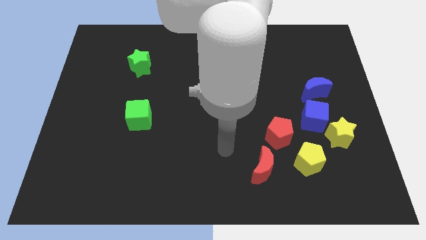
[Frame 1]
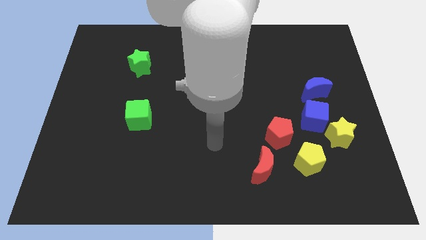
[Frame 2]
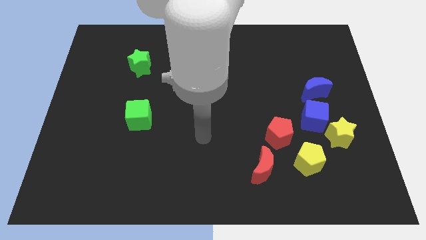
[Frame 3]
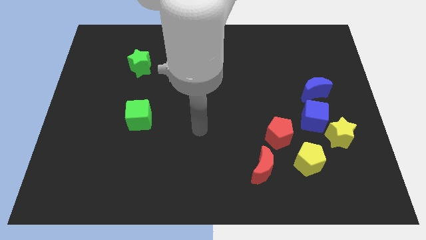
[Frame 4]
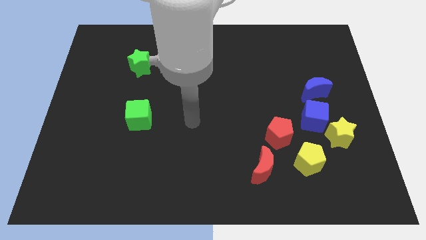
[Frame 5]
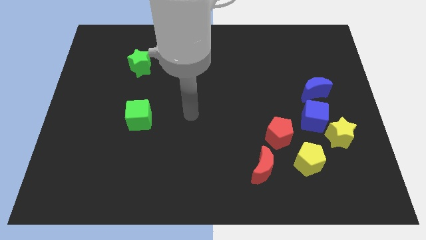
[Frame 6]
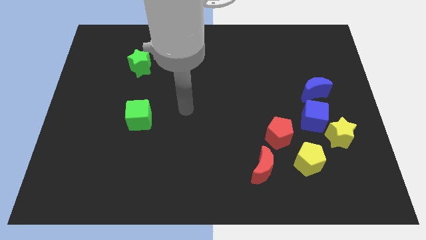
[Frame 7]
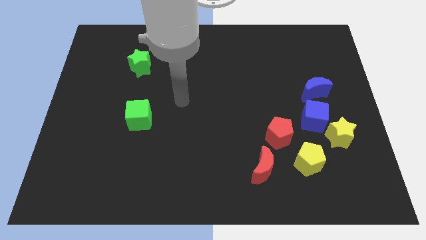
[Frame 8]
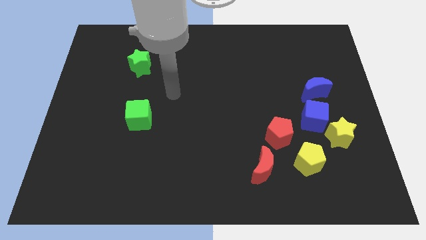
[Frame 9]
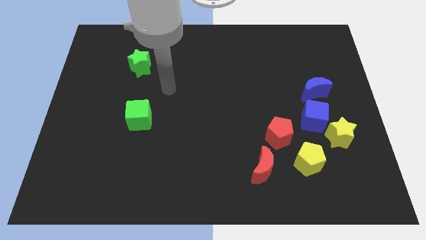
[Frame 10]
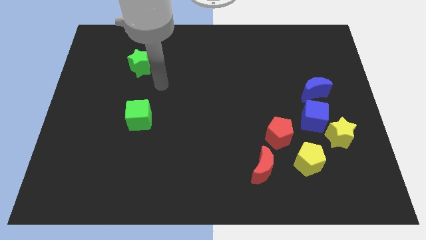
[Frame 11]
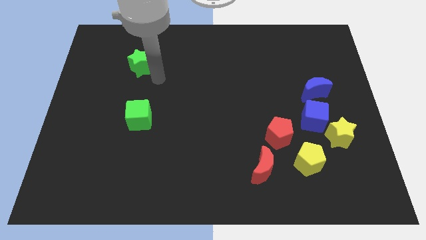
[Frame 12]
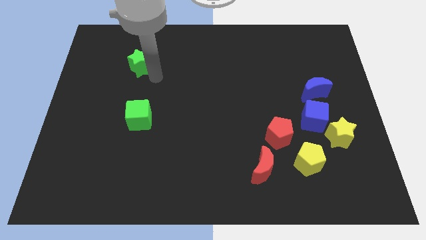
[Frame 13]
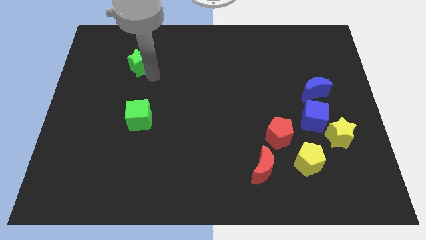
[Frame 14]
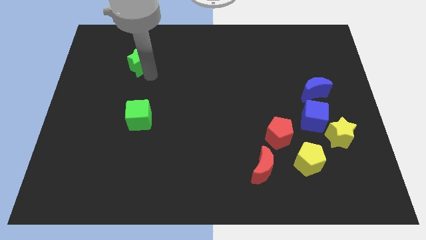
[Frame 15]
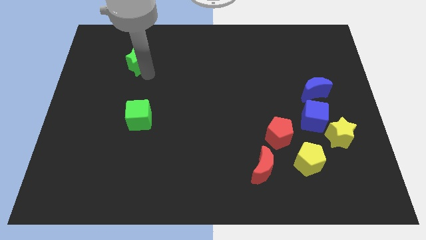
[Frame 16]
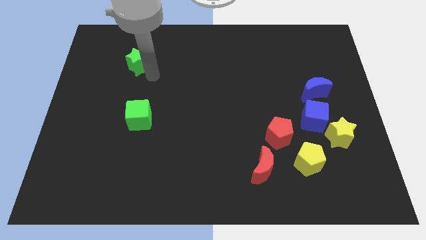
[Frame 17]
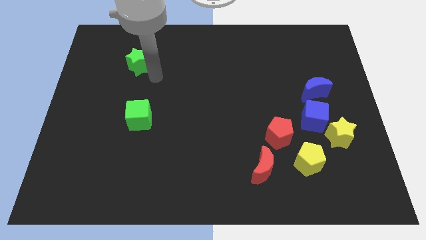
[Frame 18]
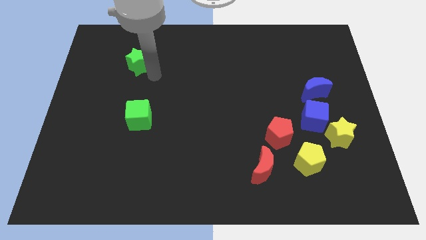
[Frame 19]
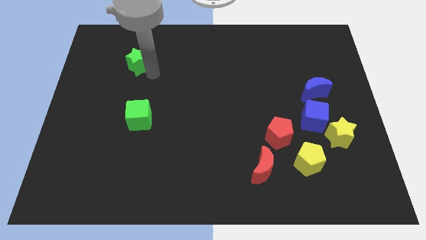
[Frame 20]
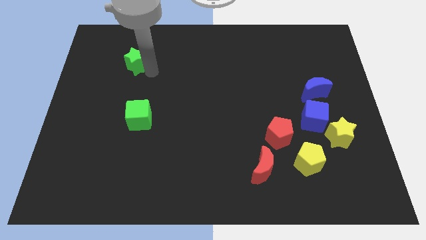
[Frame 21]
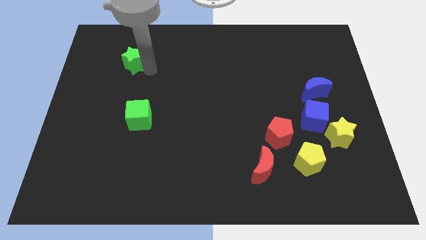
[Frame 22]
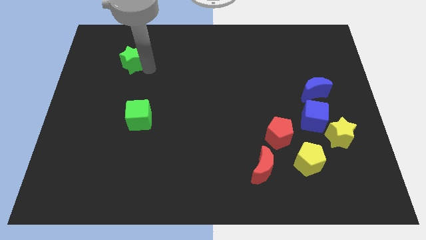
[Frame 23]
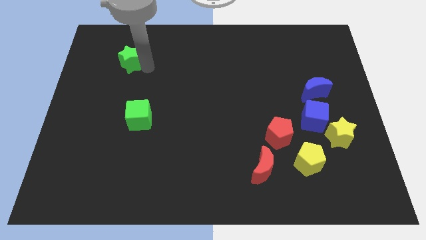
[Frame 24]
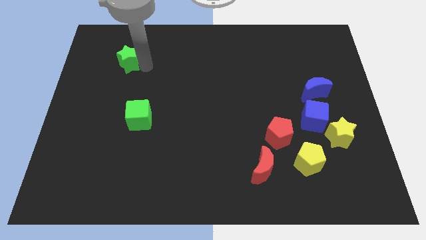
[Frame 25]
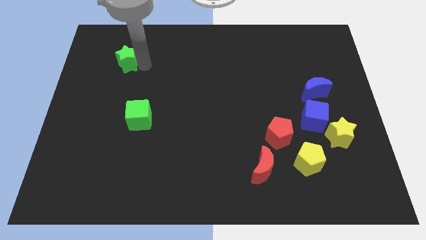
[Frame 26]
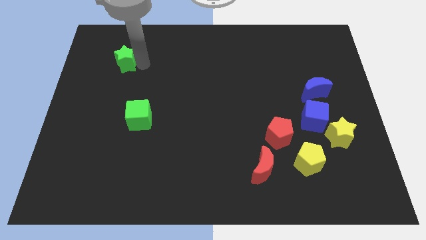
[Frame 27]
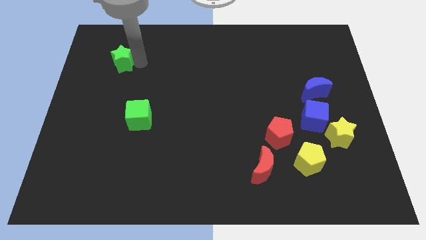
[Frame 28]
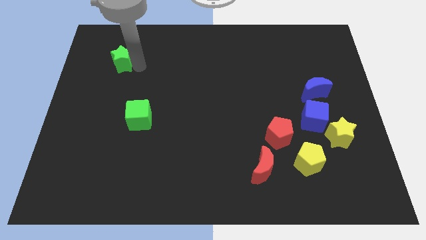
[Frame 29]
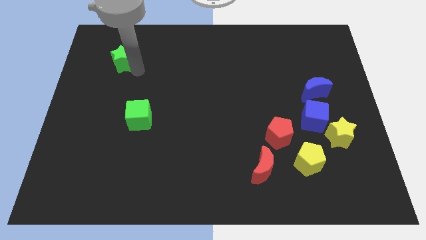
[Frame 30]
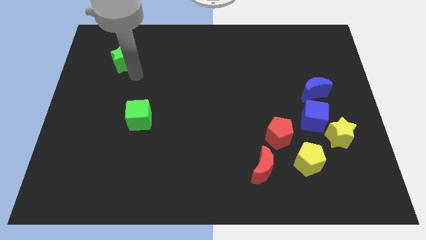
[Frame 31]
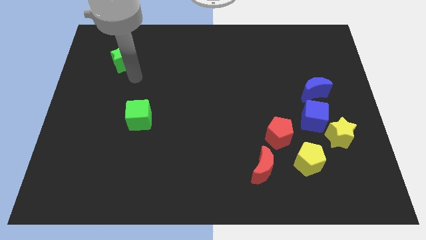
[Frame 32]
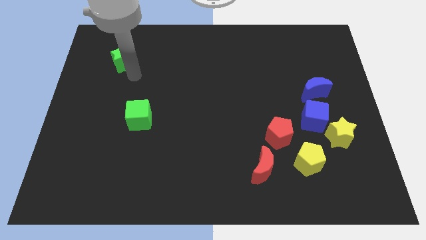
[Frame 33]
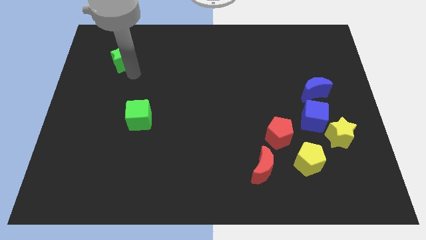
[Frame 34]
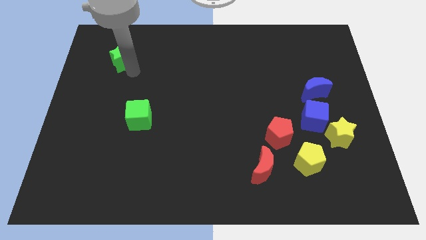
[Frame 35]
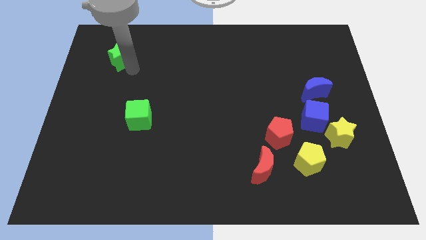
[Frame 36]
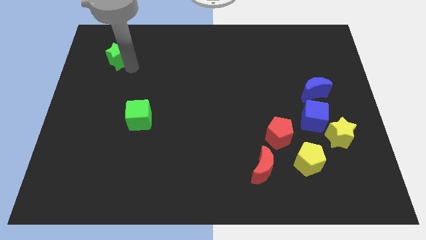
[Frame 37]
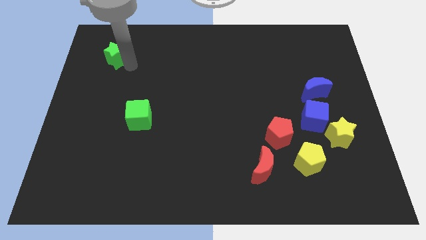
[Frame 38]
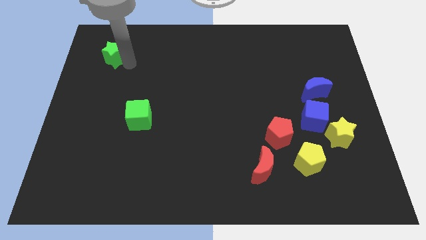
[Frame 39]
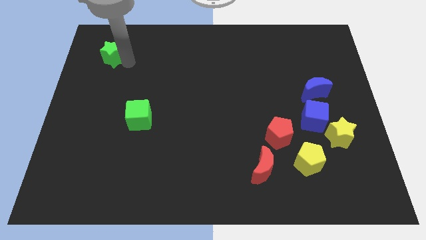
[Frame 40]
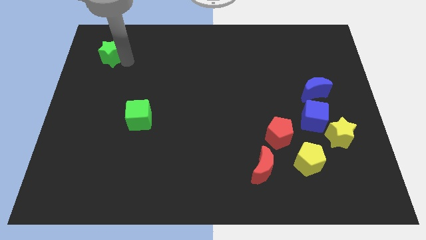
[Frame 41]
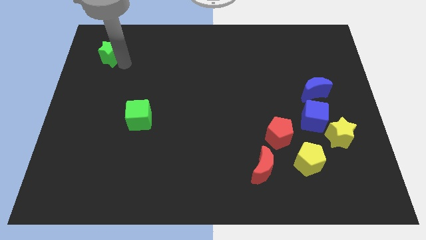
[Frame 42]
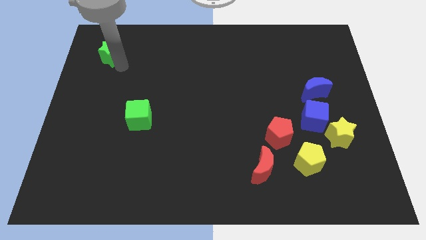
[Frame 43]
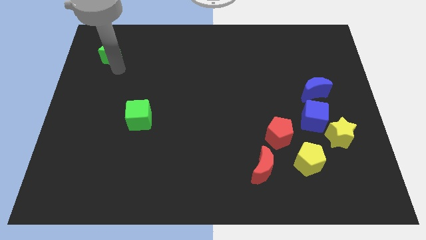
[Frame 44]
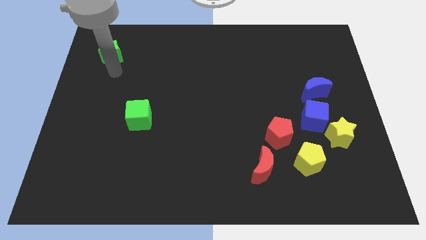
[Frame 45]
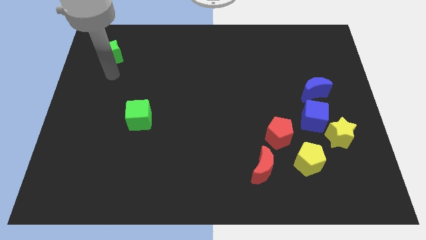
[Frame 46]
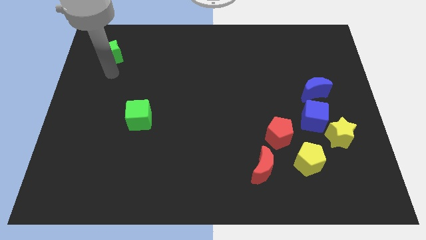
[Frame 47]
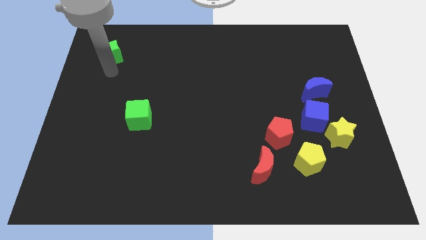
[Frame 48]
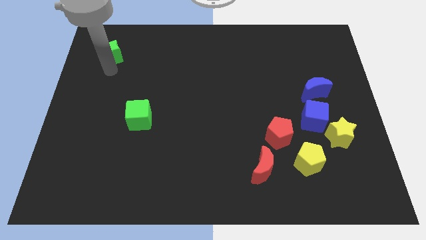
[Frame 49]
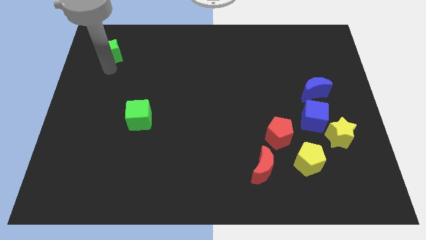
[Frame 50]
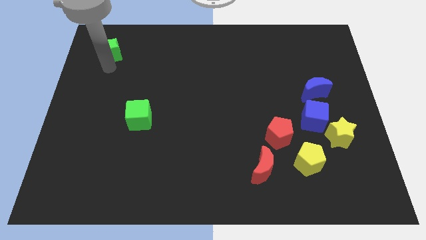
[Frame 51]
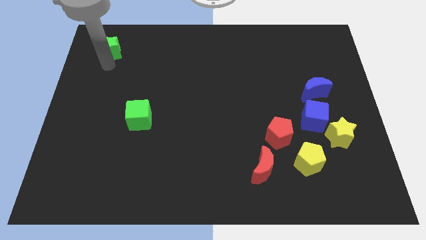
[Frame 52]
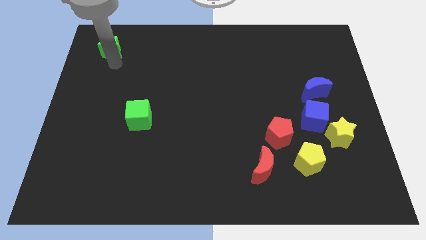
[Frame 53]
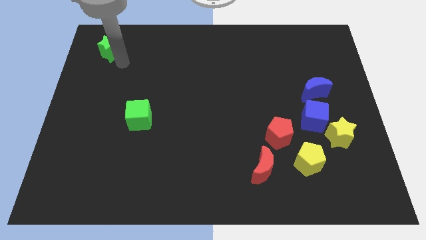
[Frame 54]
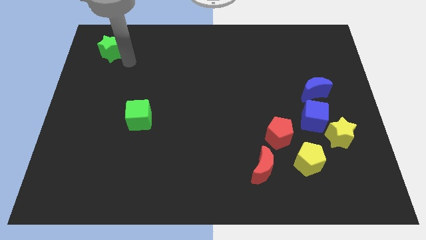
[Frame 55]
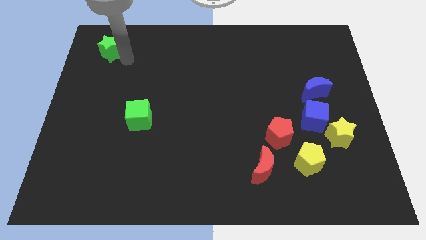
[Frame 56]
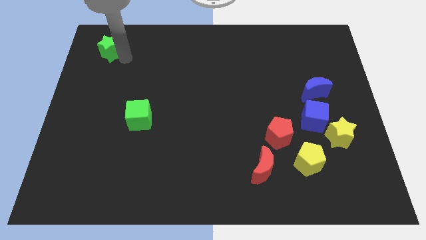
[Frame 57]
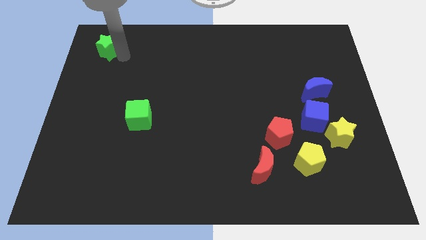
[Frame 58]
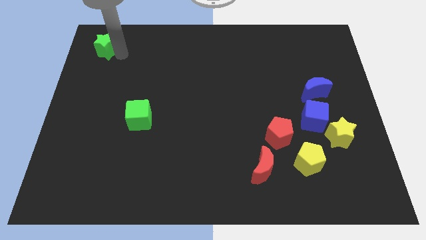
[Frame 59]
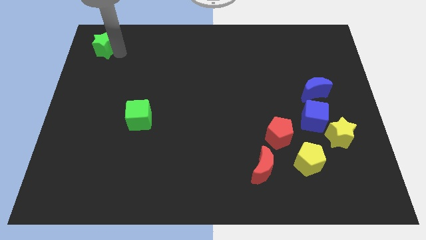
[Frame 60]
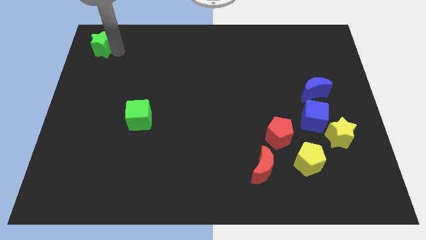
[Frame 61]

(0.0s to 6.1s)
move the green star to the top left corner
